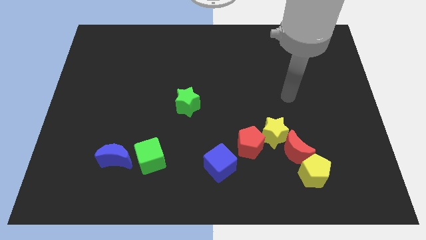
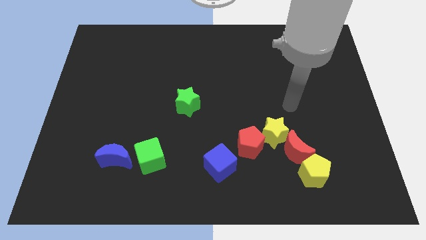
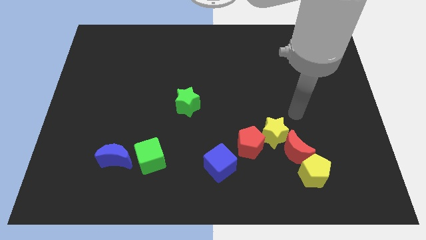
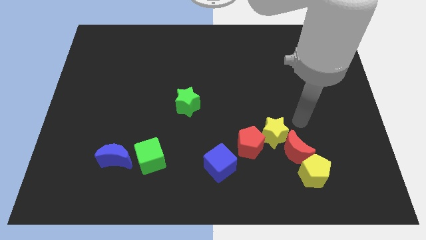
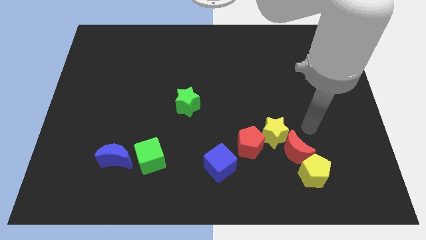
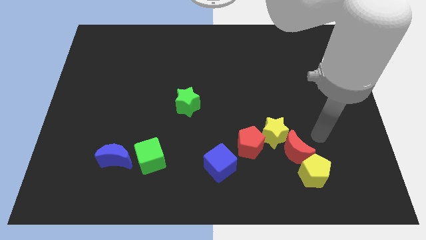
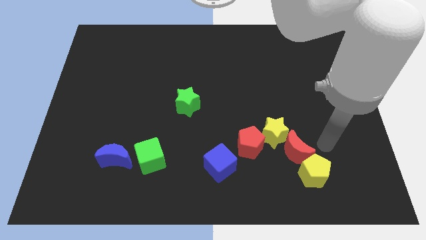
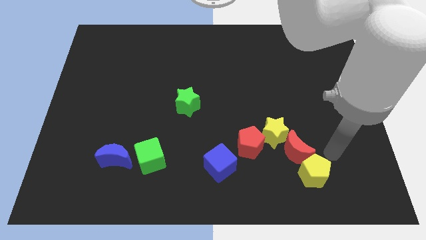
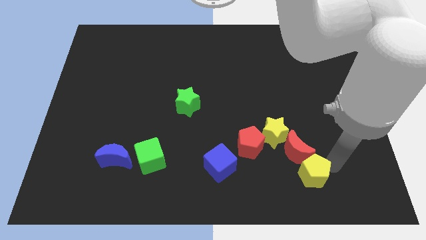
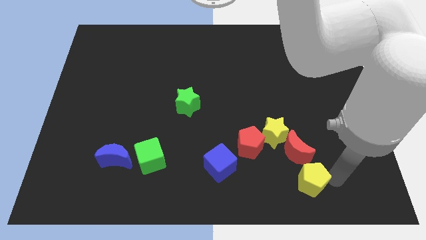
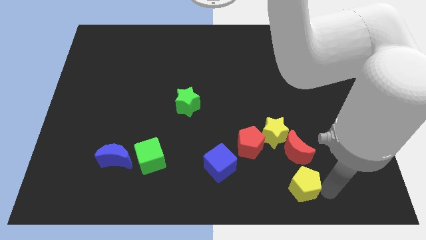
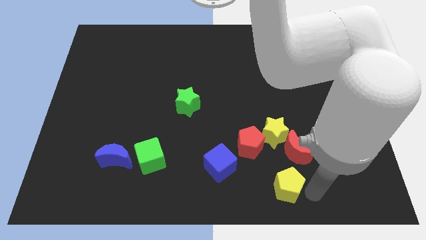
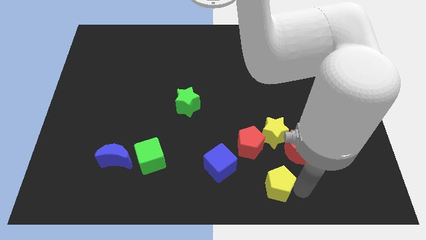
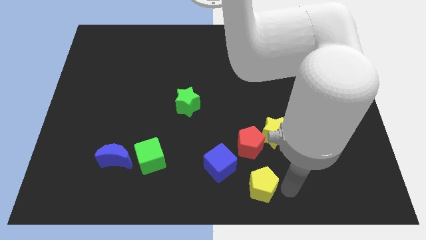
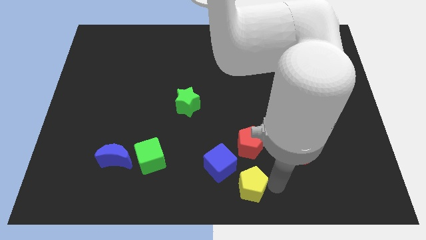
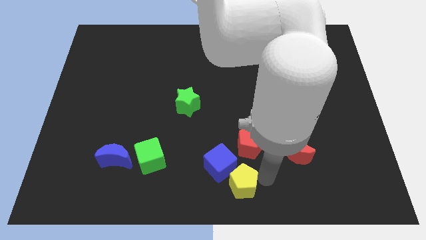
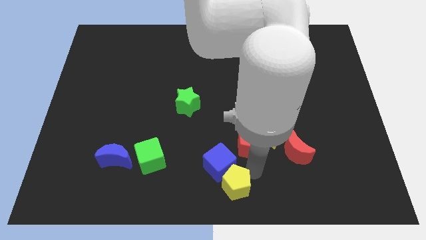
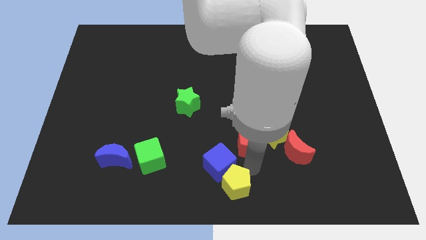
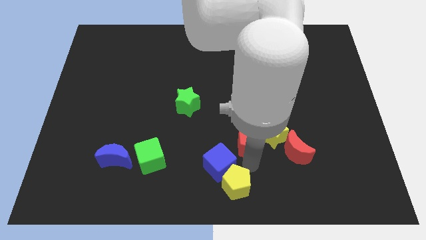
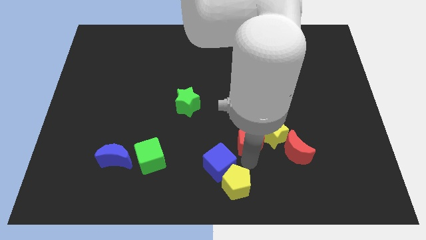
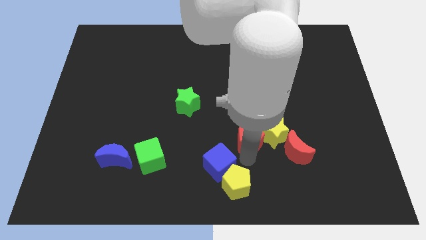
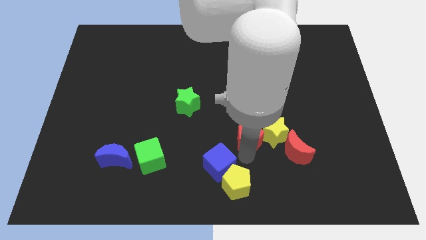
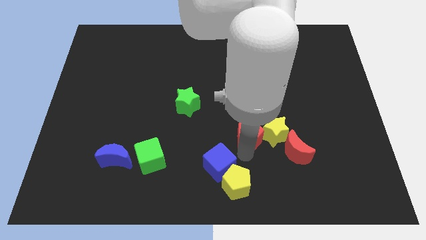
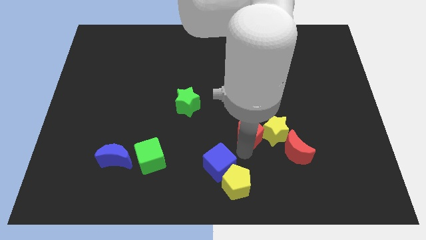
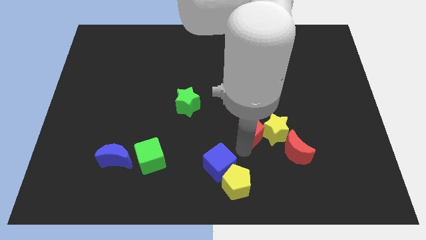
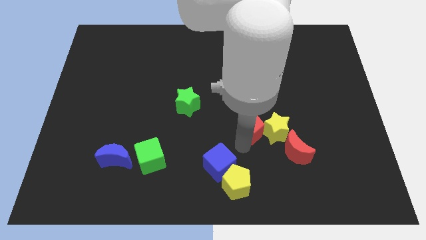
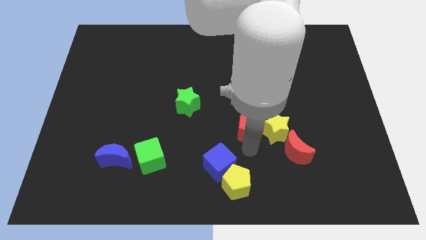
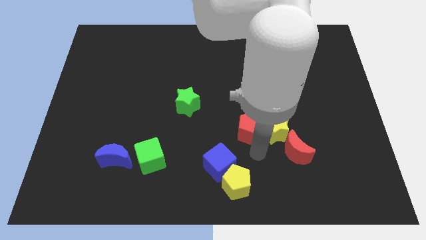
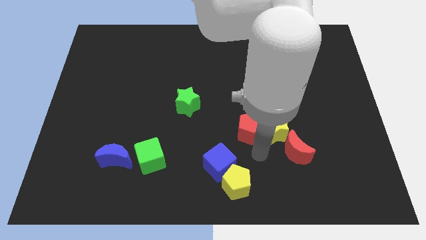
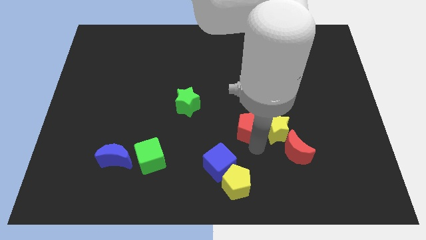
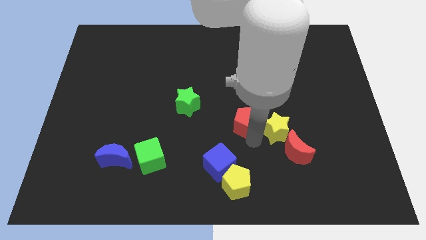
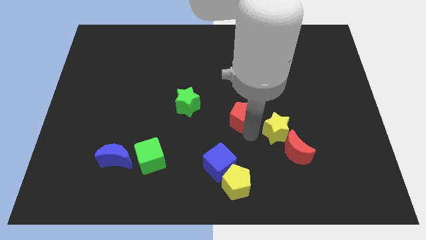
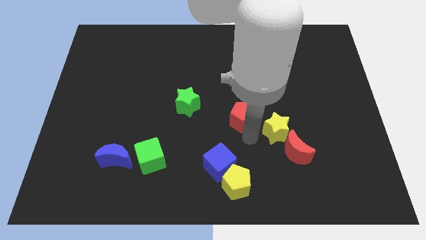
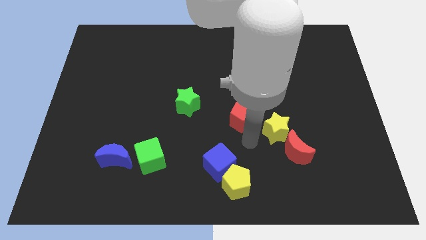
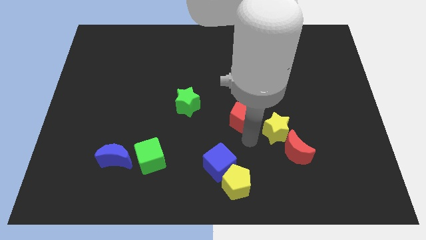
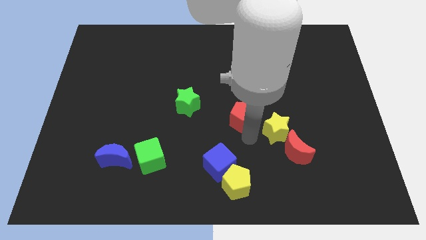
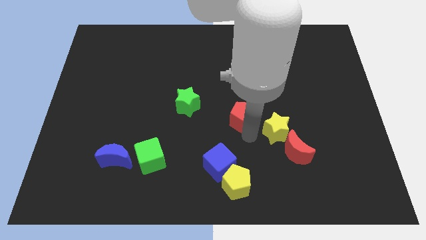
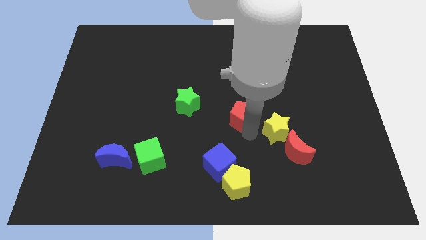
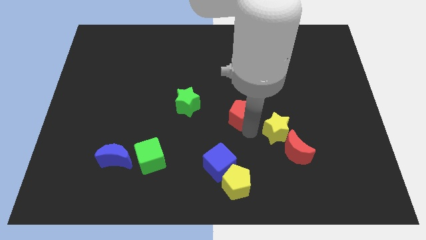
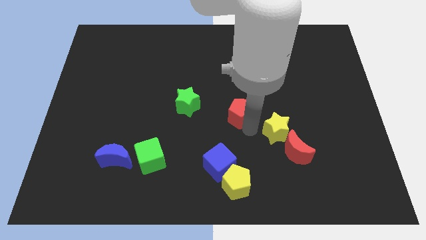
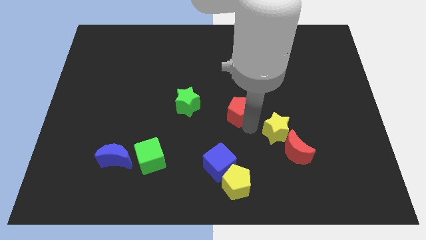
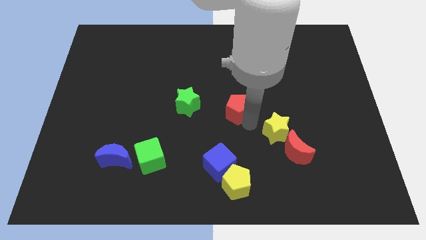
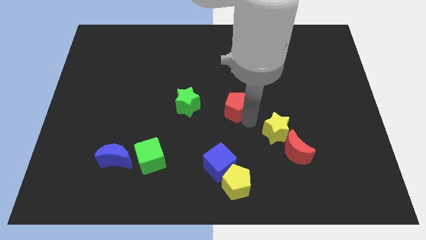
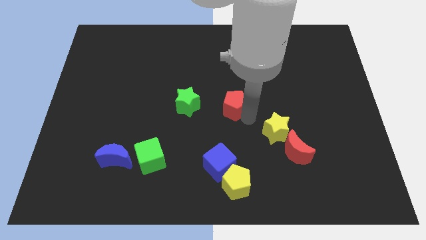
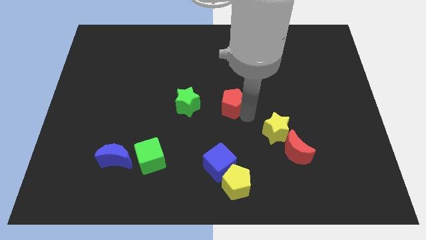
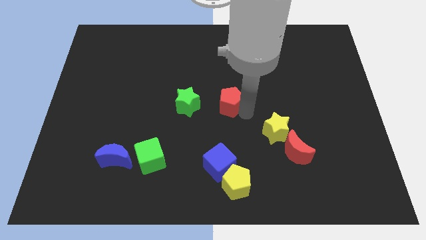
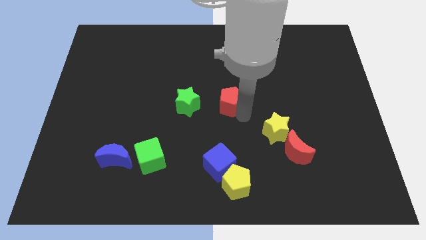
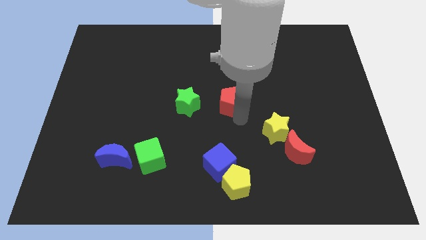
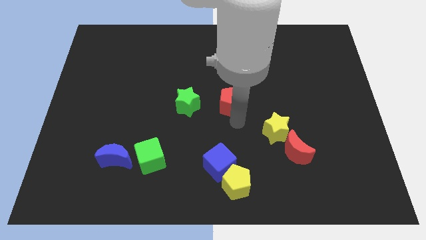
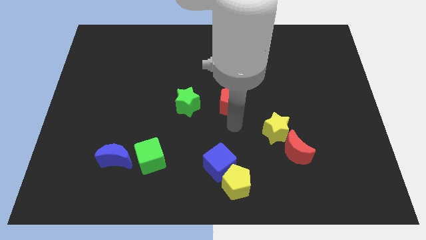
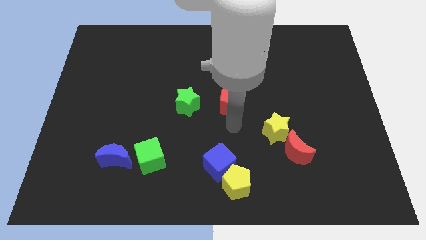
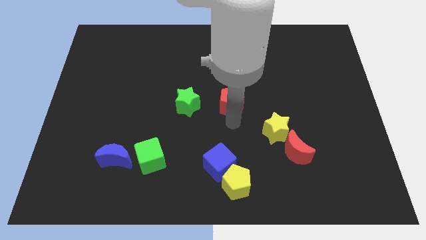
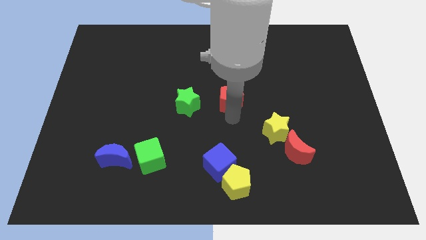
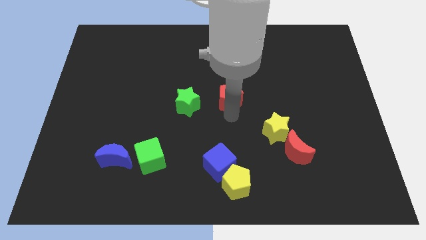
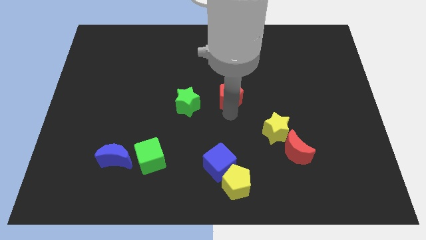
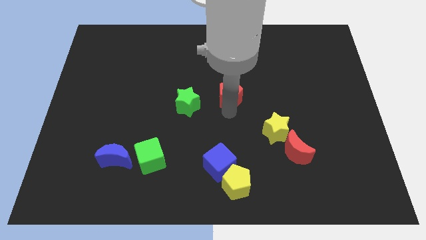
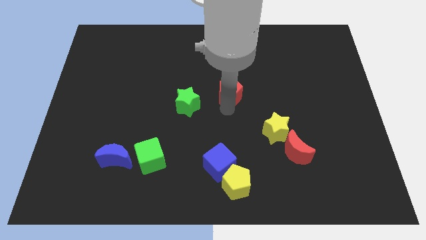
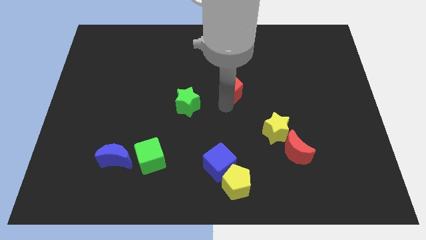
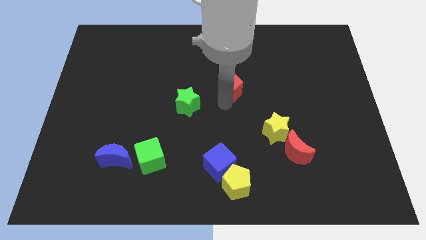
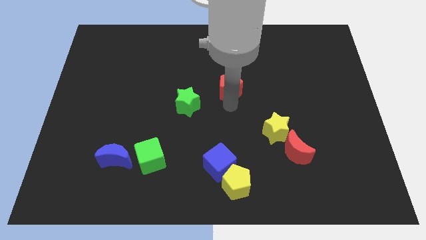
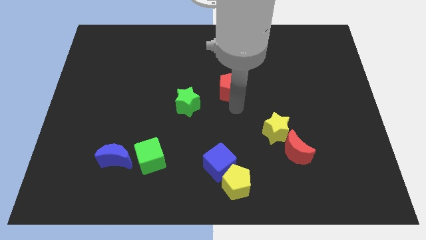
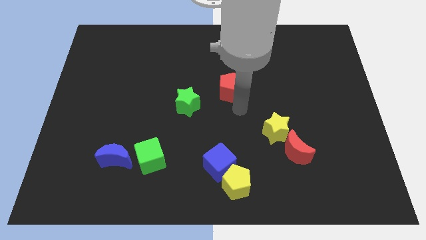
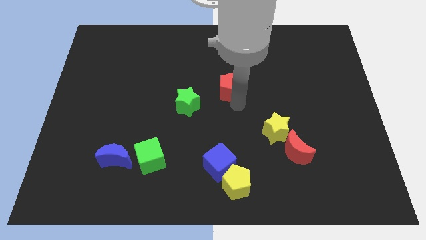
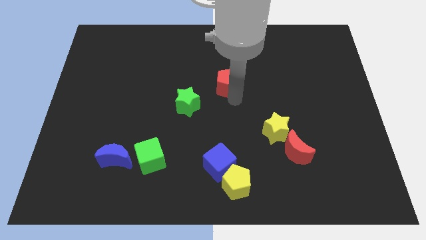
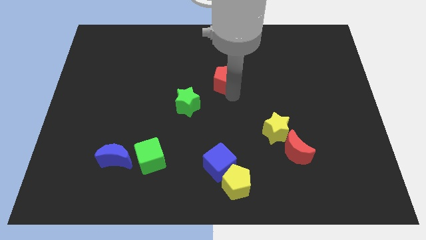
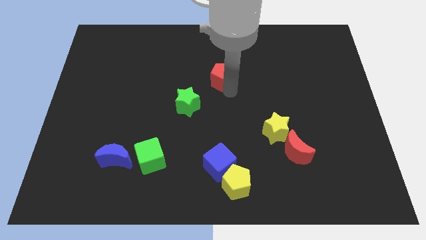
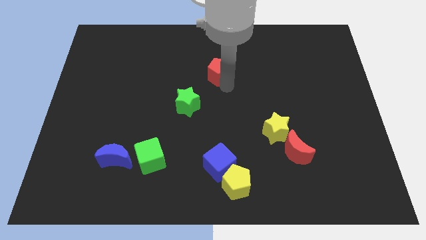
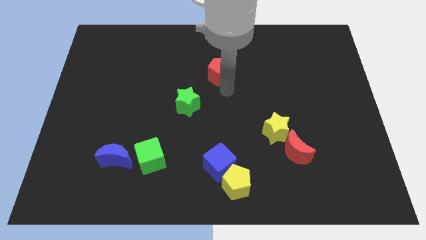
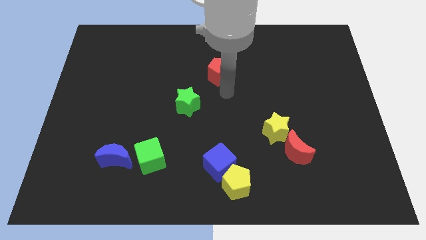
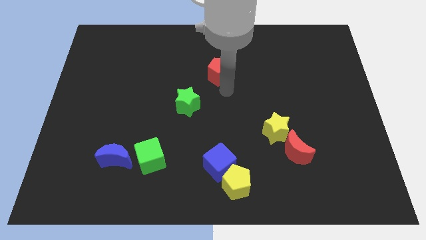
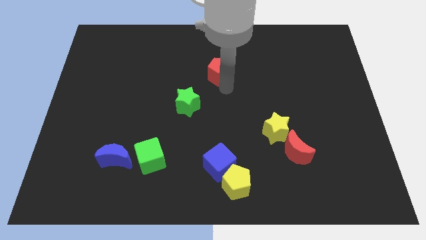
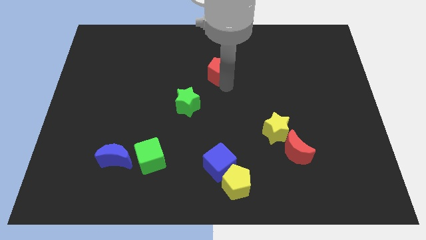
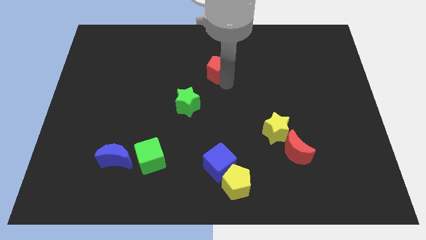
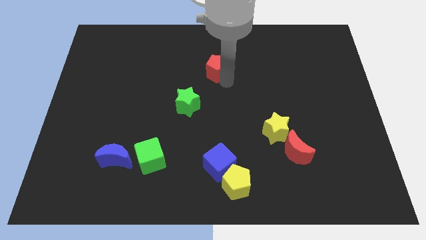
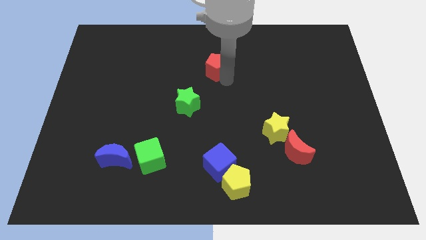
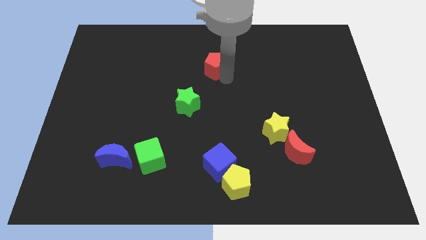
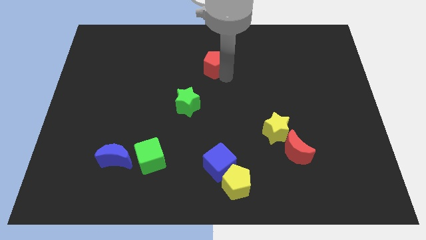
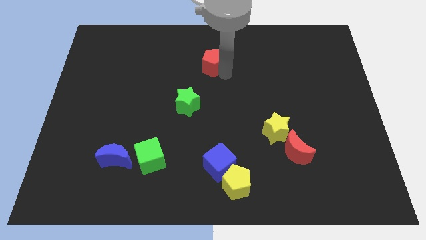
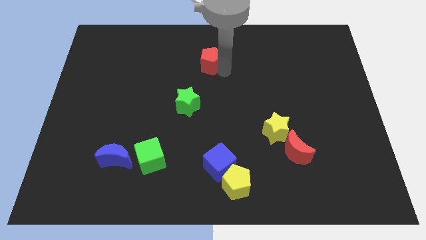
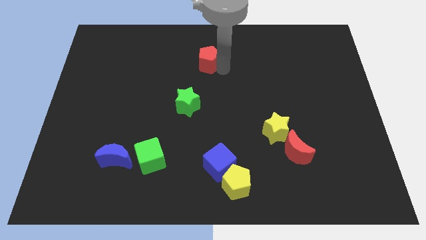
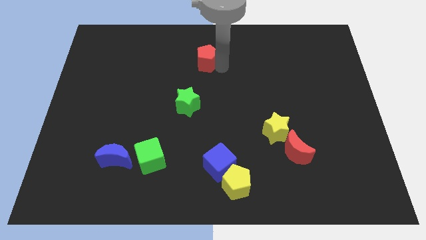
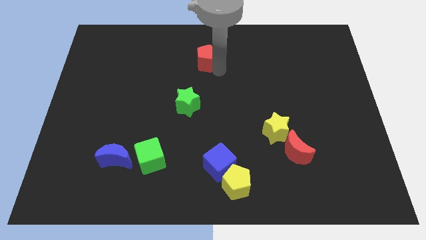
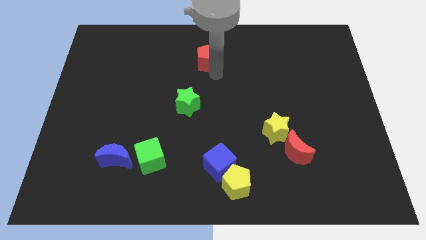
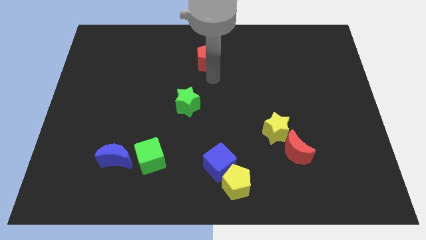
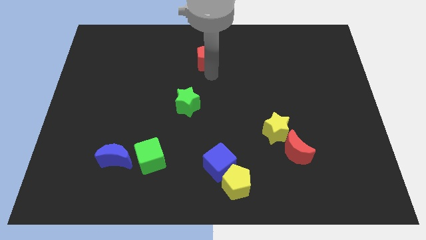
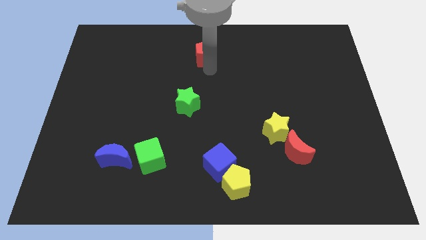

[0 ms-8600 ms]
push the red pentagon to the top side
